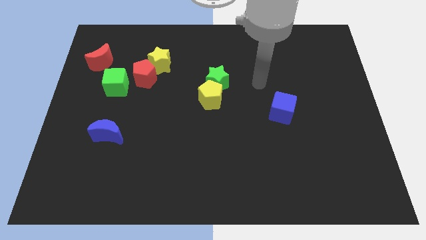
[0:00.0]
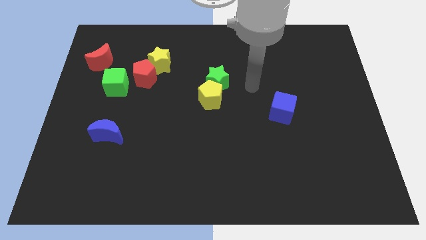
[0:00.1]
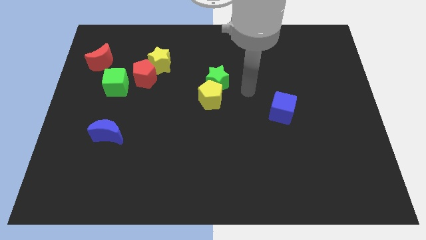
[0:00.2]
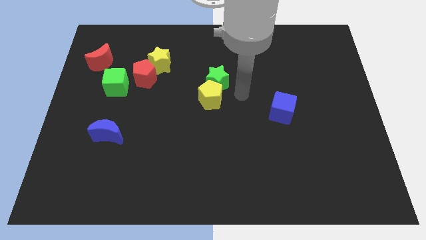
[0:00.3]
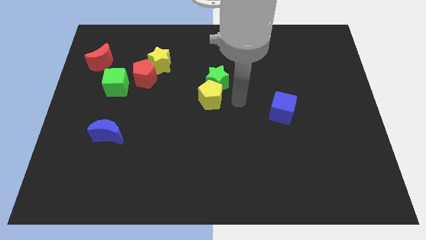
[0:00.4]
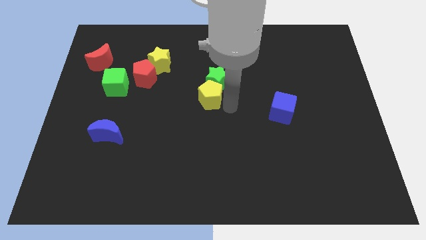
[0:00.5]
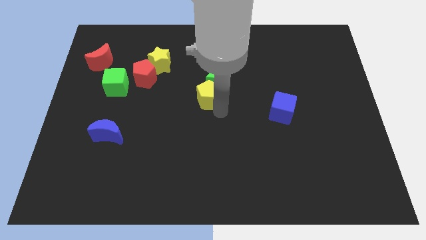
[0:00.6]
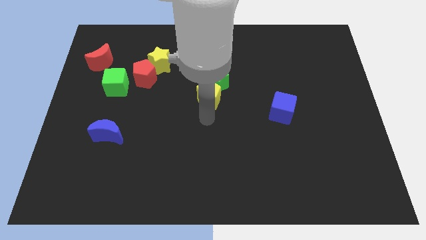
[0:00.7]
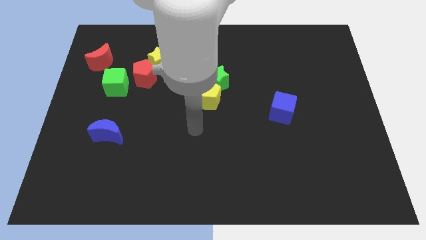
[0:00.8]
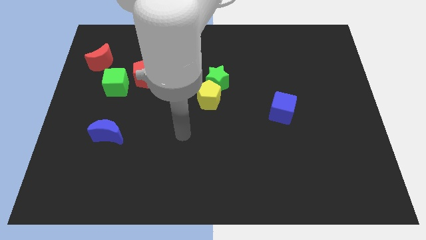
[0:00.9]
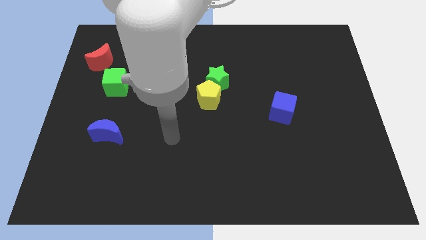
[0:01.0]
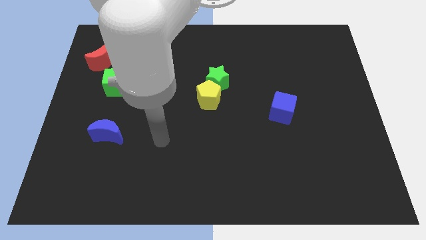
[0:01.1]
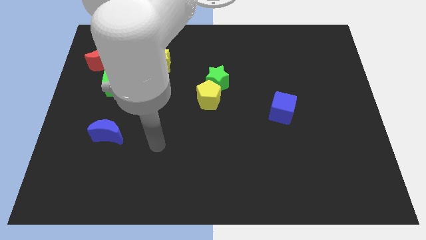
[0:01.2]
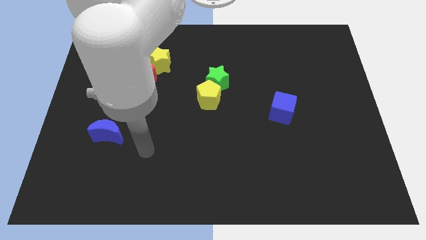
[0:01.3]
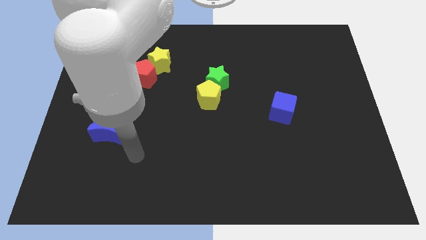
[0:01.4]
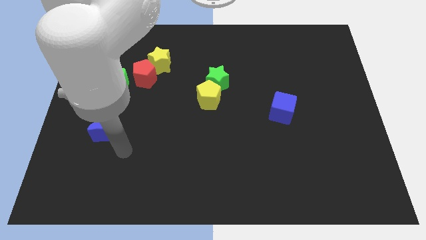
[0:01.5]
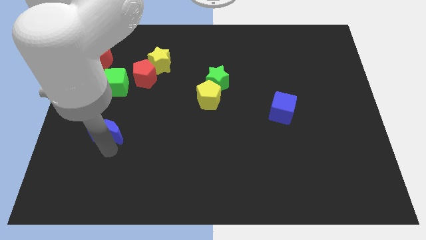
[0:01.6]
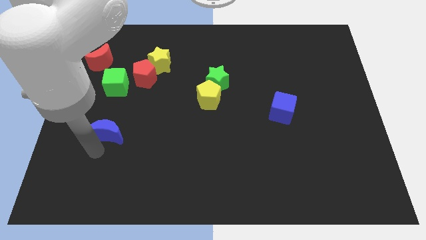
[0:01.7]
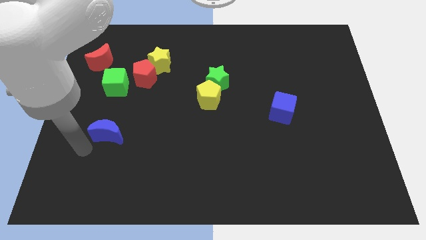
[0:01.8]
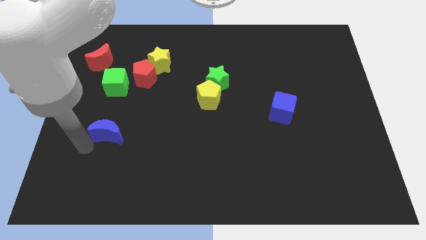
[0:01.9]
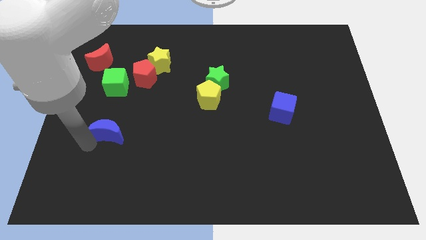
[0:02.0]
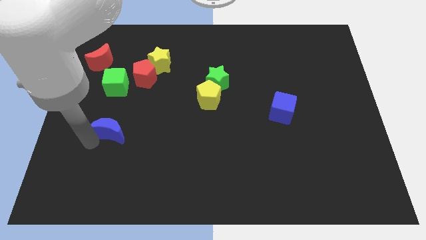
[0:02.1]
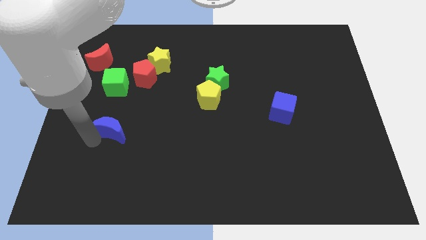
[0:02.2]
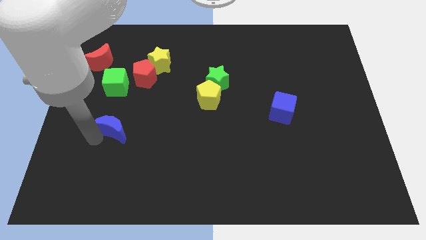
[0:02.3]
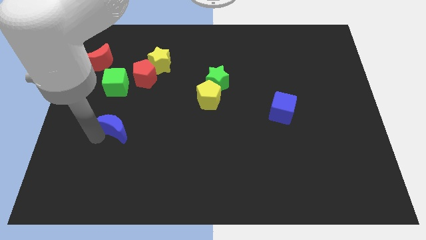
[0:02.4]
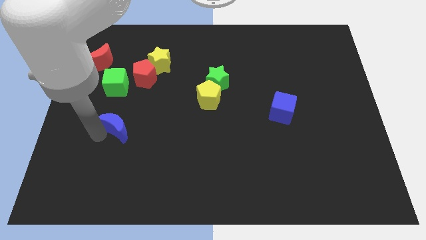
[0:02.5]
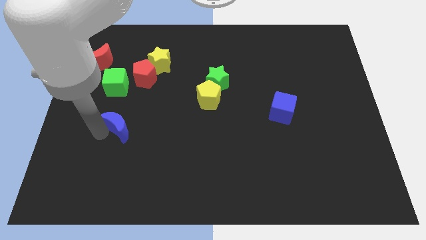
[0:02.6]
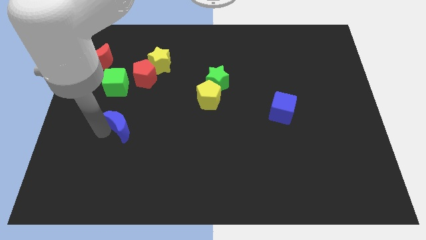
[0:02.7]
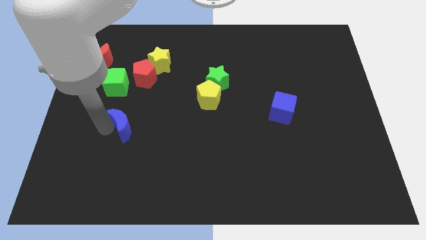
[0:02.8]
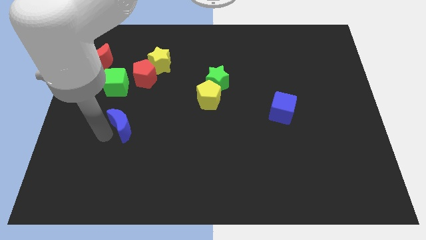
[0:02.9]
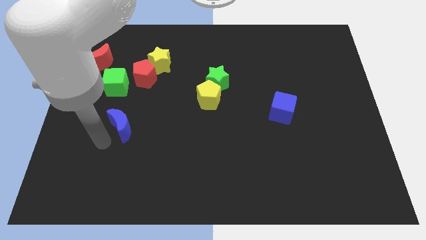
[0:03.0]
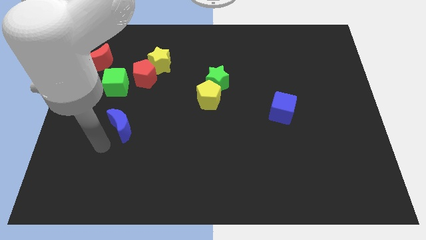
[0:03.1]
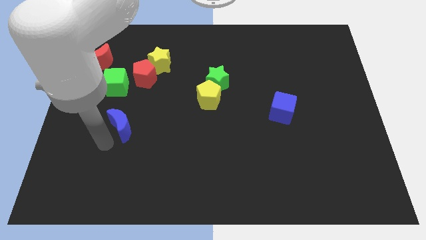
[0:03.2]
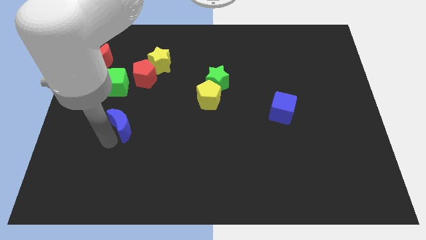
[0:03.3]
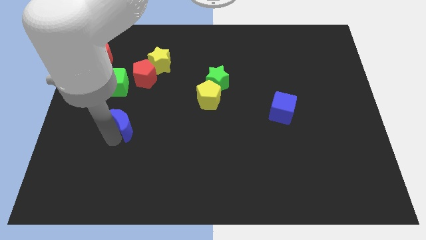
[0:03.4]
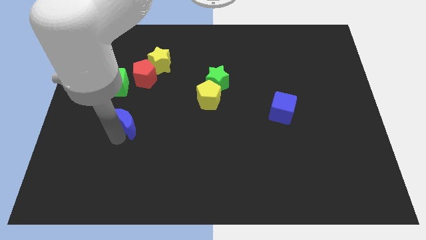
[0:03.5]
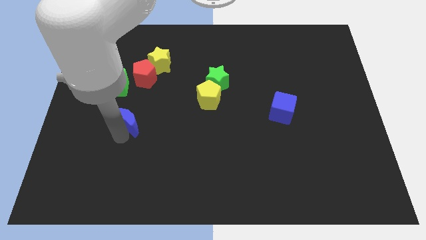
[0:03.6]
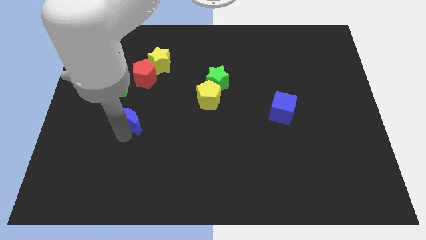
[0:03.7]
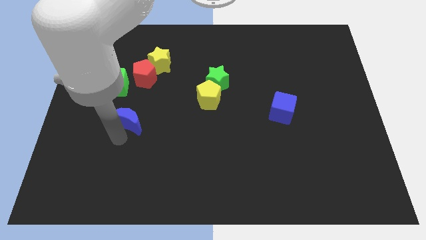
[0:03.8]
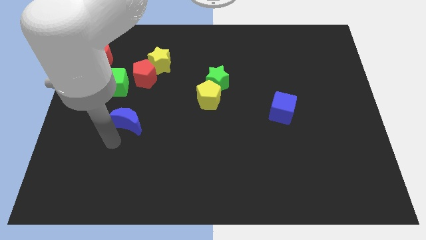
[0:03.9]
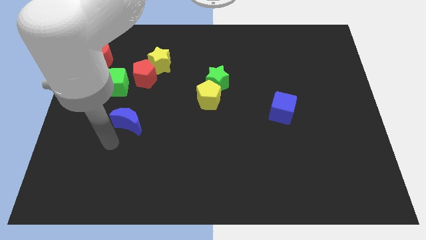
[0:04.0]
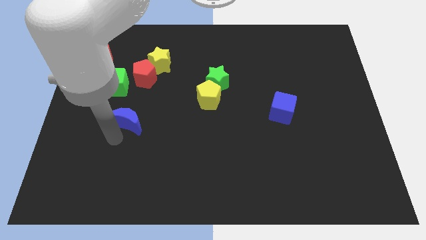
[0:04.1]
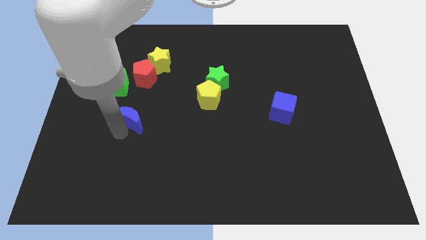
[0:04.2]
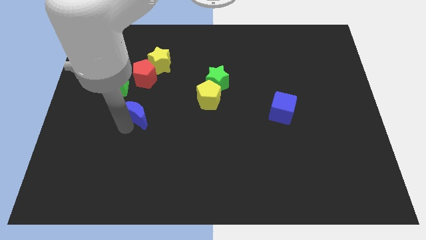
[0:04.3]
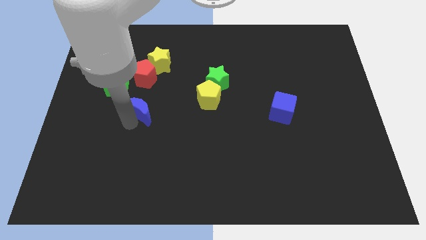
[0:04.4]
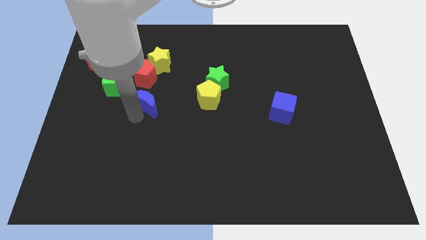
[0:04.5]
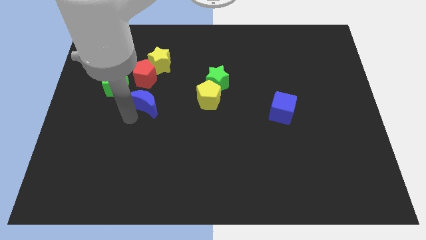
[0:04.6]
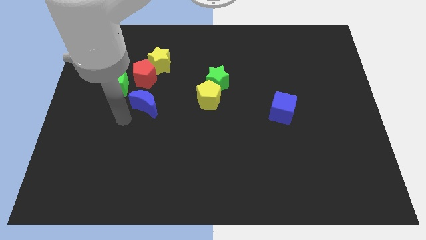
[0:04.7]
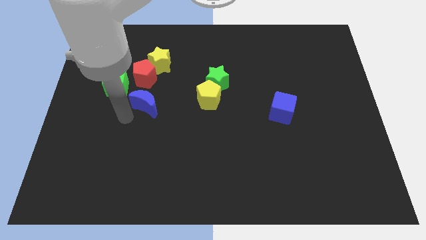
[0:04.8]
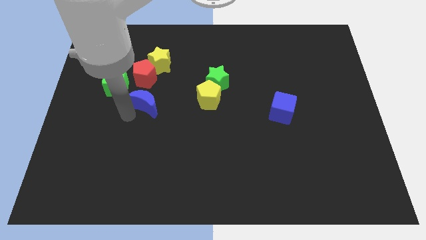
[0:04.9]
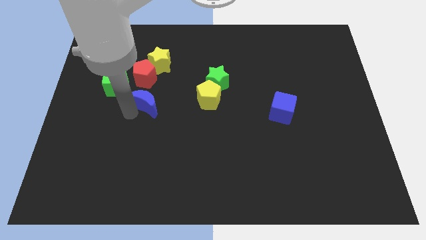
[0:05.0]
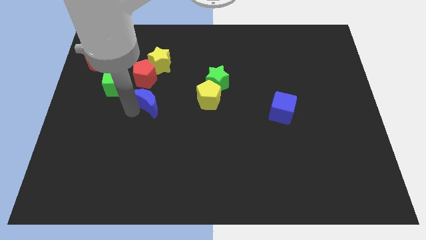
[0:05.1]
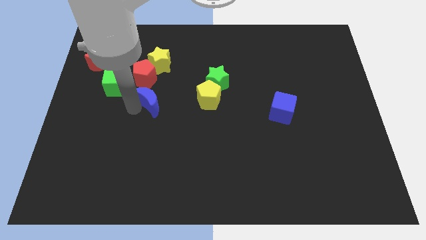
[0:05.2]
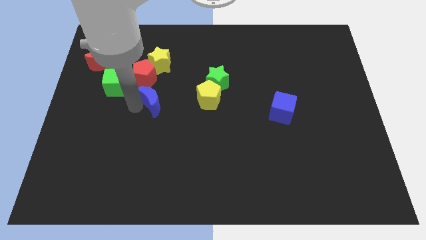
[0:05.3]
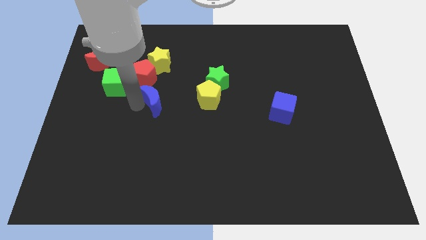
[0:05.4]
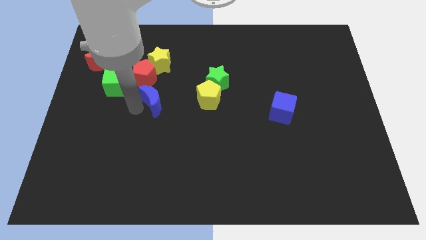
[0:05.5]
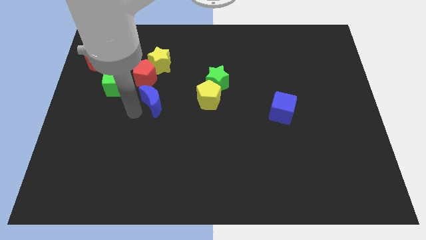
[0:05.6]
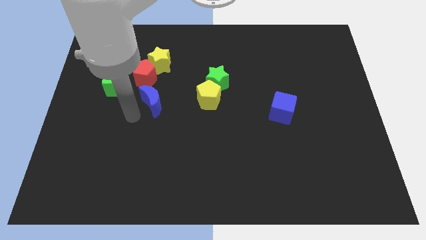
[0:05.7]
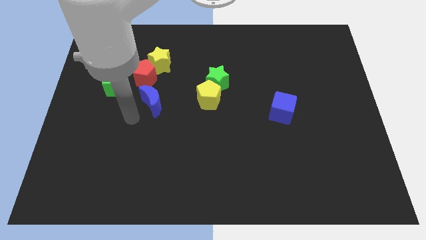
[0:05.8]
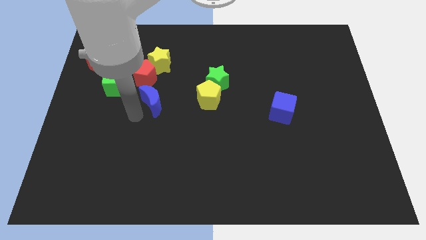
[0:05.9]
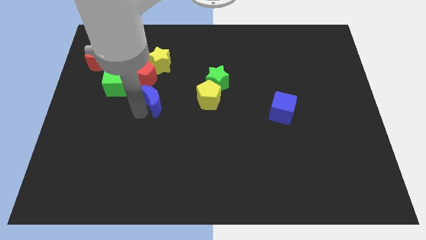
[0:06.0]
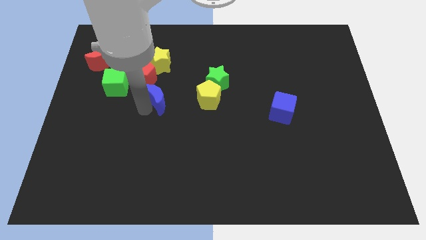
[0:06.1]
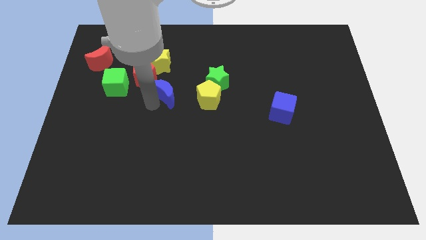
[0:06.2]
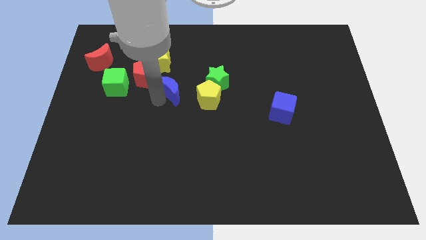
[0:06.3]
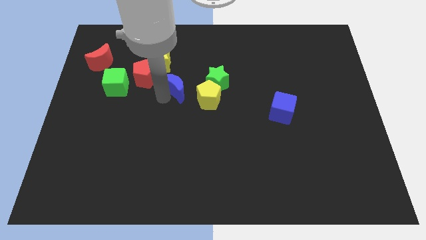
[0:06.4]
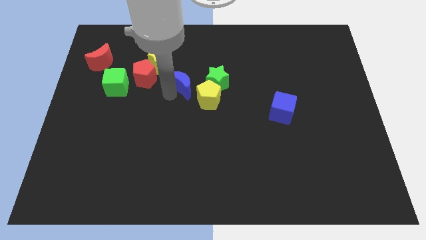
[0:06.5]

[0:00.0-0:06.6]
move the blue moon diagonally upwards and right

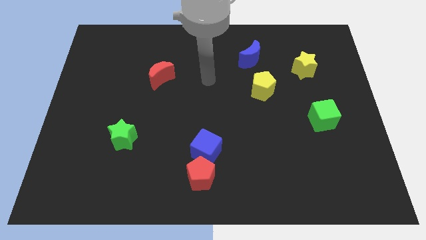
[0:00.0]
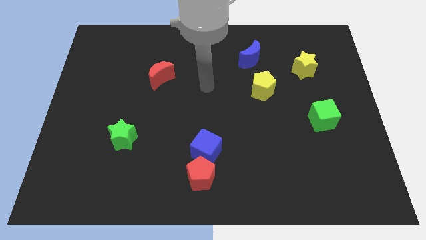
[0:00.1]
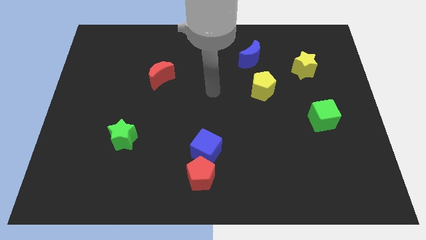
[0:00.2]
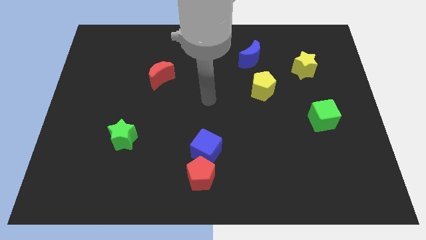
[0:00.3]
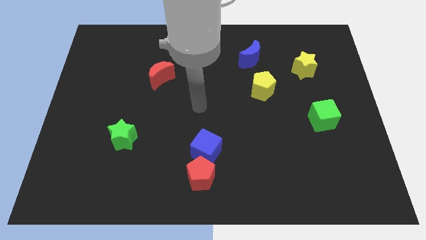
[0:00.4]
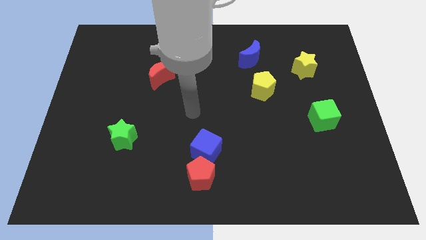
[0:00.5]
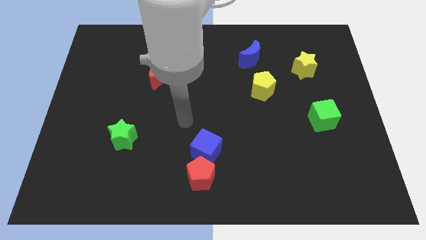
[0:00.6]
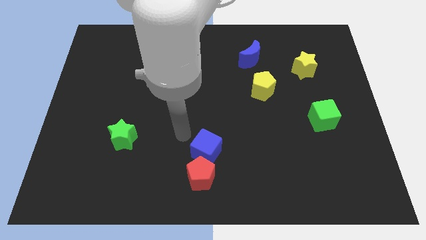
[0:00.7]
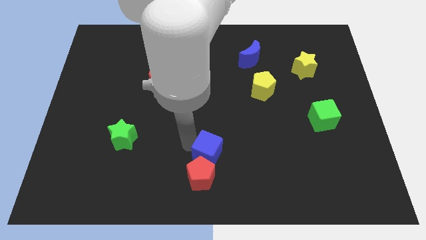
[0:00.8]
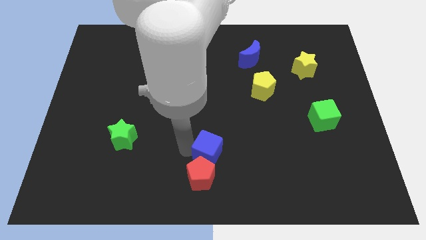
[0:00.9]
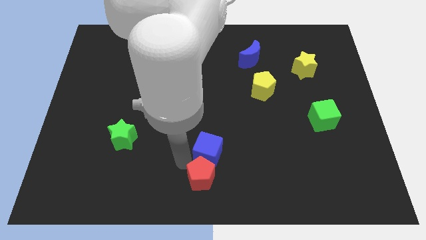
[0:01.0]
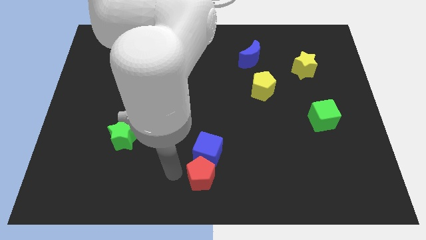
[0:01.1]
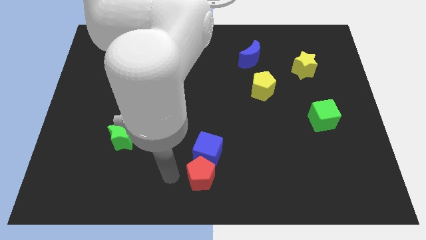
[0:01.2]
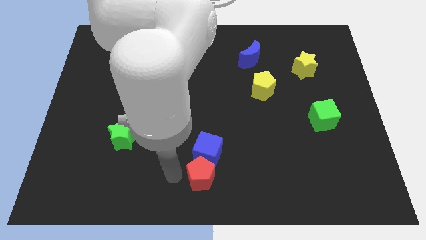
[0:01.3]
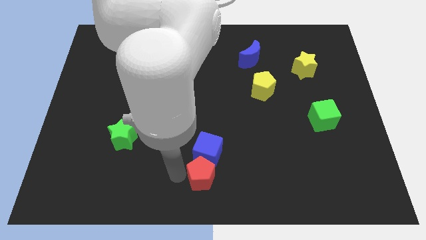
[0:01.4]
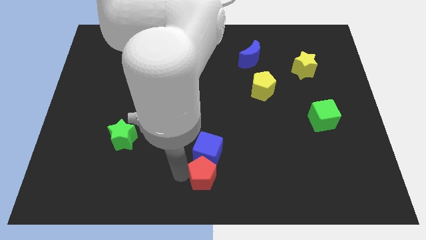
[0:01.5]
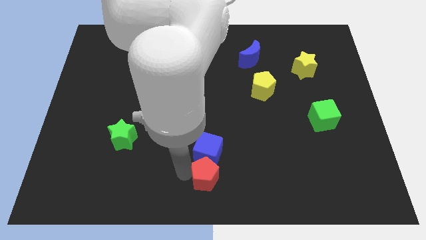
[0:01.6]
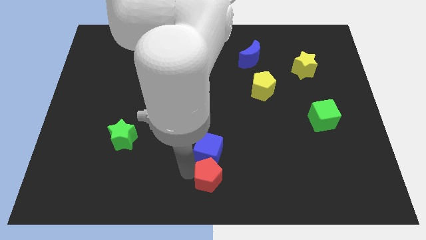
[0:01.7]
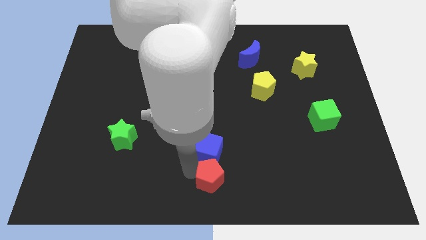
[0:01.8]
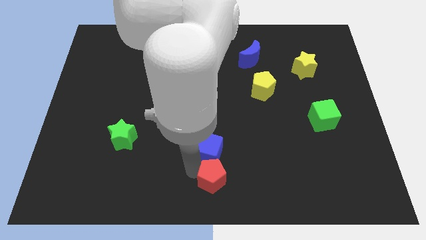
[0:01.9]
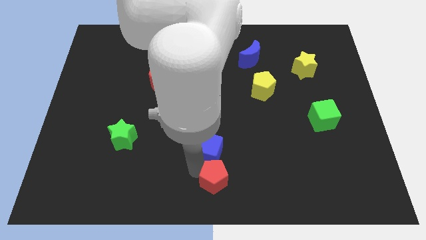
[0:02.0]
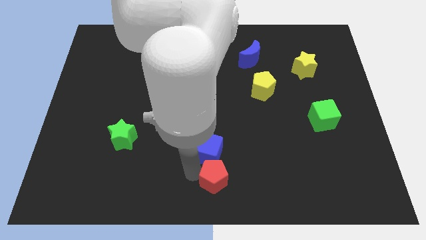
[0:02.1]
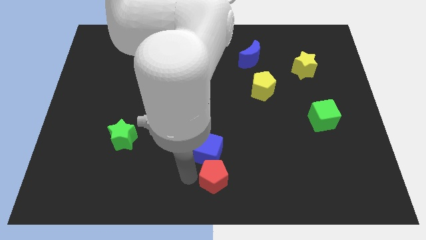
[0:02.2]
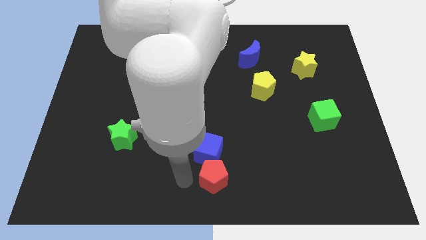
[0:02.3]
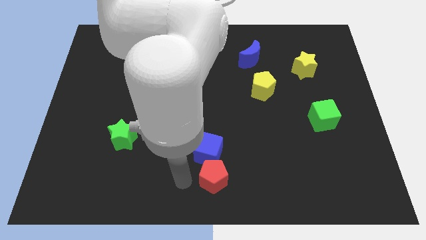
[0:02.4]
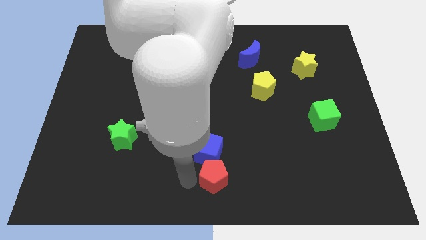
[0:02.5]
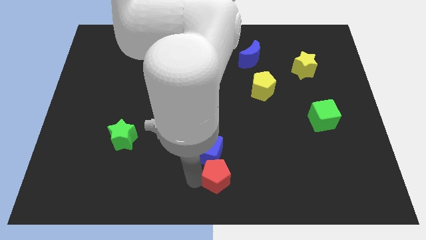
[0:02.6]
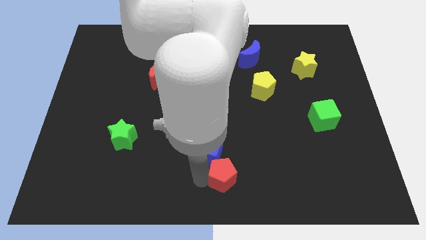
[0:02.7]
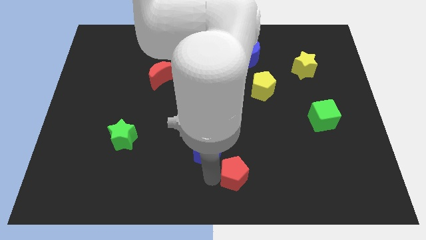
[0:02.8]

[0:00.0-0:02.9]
push the red pentagon right a little bit
